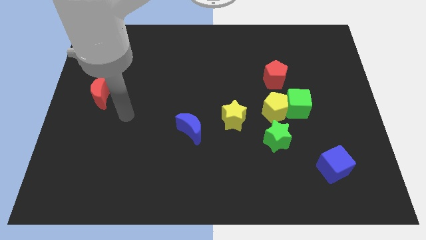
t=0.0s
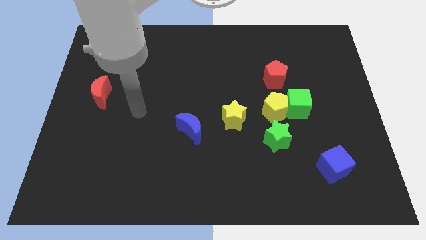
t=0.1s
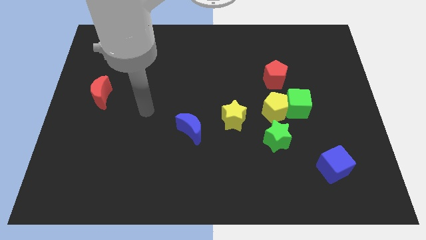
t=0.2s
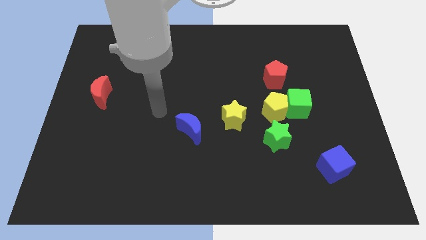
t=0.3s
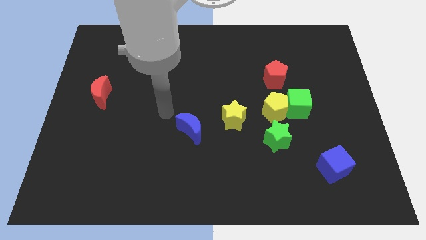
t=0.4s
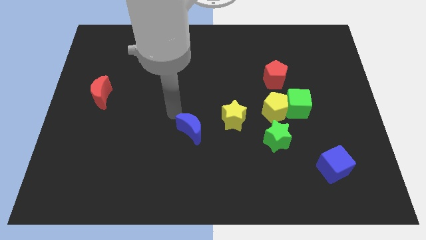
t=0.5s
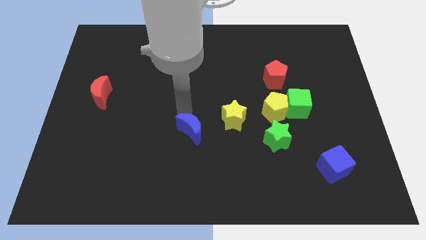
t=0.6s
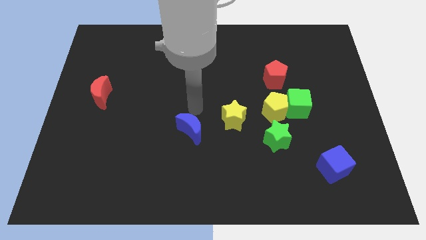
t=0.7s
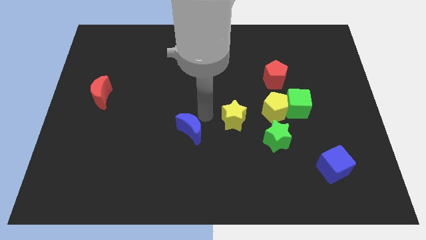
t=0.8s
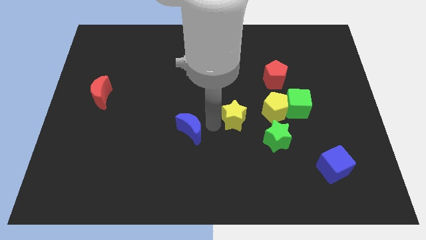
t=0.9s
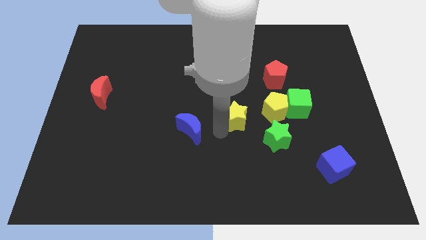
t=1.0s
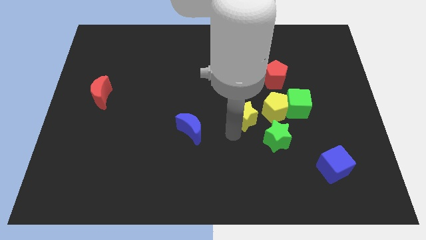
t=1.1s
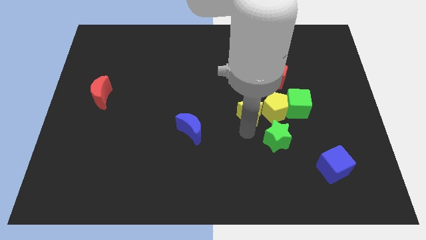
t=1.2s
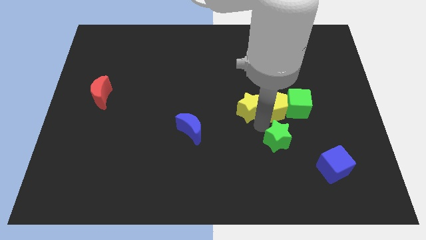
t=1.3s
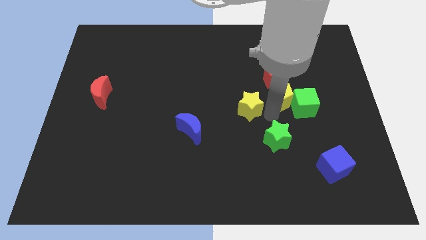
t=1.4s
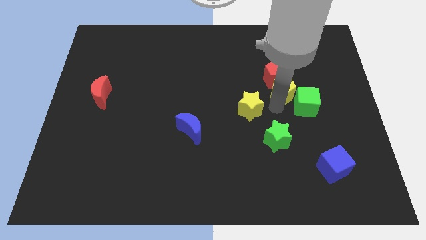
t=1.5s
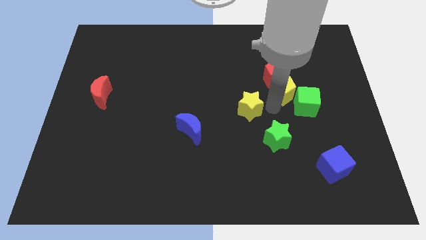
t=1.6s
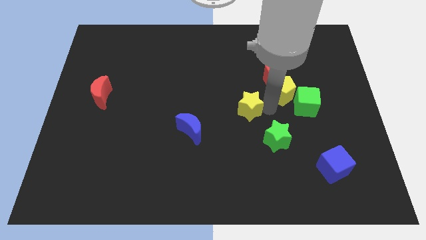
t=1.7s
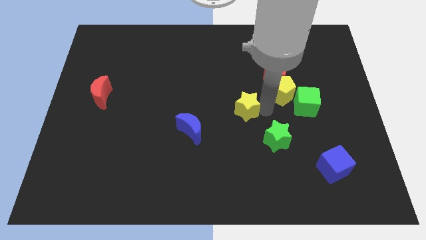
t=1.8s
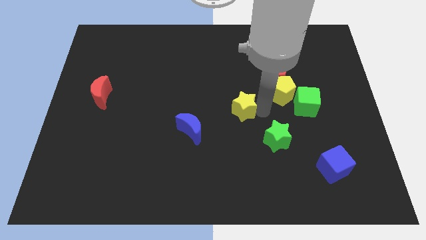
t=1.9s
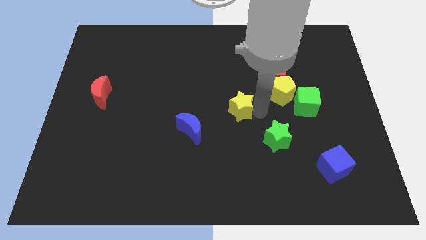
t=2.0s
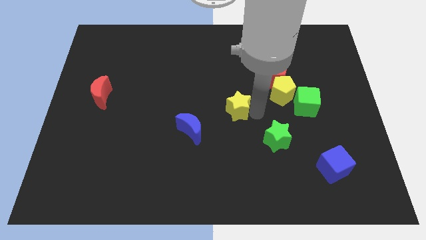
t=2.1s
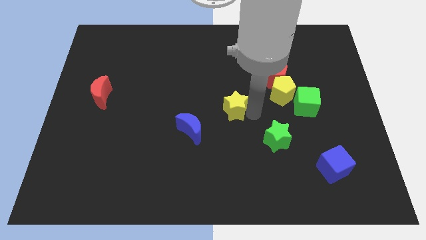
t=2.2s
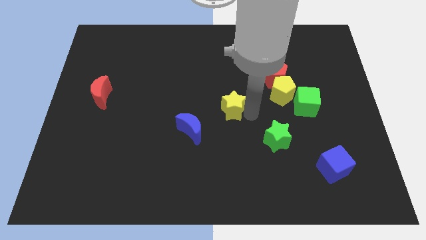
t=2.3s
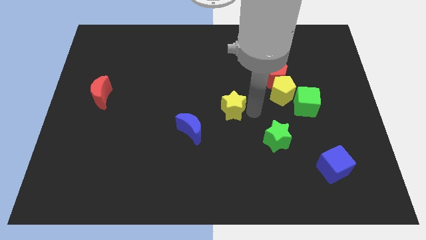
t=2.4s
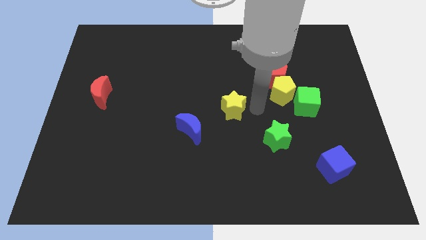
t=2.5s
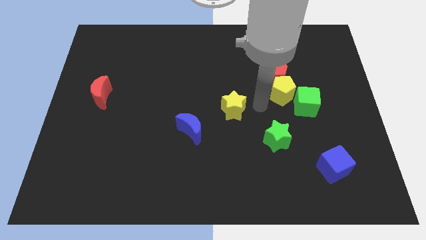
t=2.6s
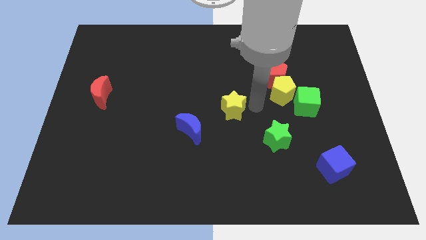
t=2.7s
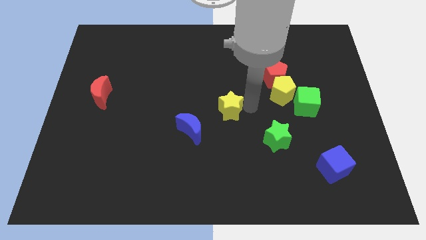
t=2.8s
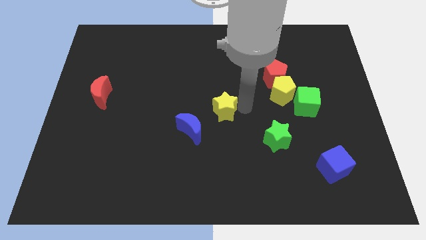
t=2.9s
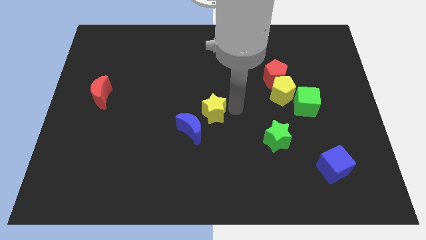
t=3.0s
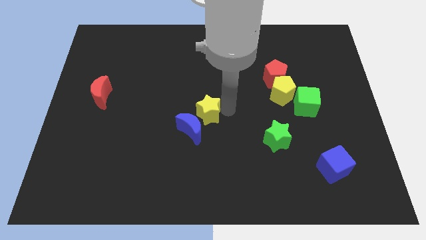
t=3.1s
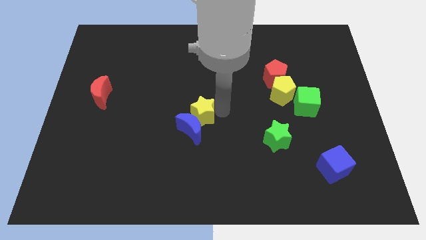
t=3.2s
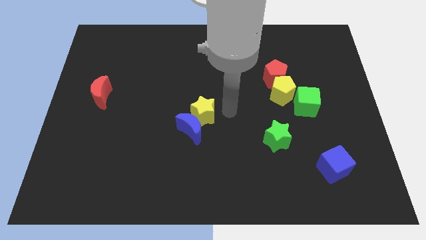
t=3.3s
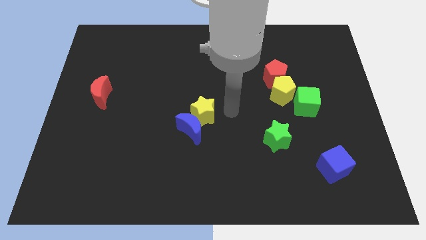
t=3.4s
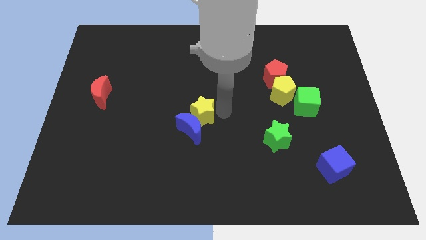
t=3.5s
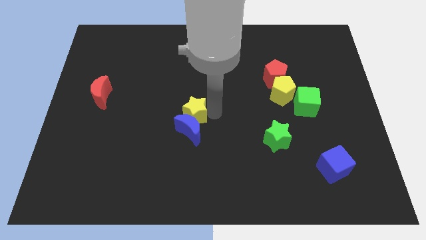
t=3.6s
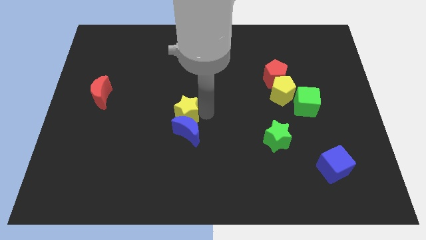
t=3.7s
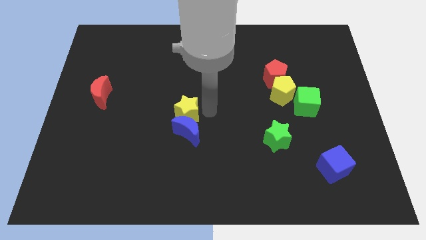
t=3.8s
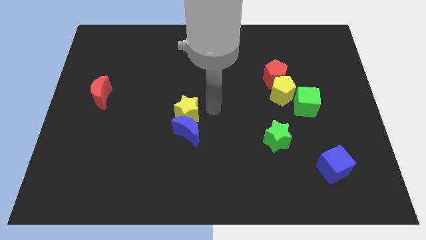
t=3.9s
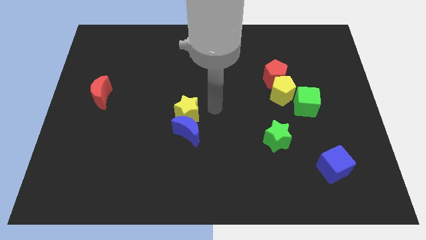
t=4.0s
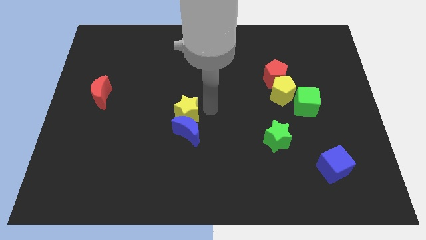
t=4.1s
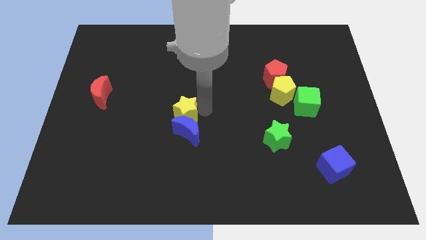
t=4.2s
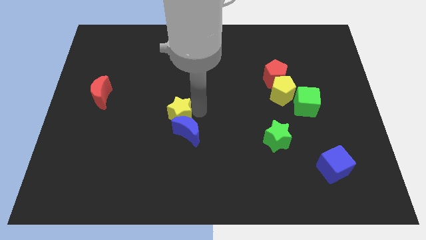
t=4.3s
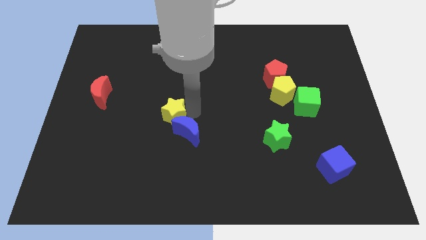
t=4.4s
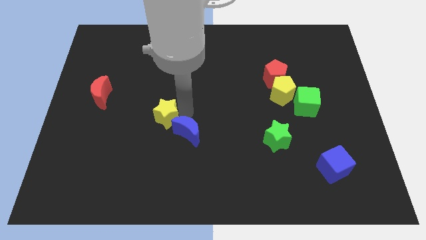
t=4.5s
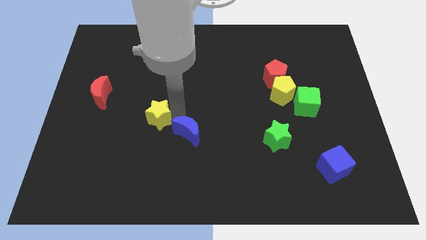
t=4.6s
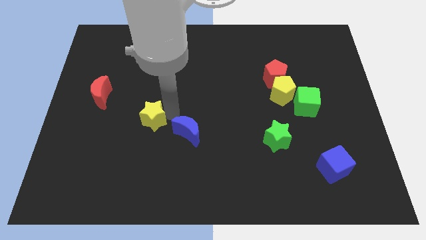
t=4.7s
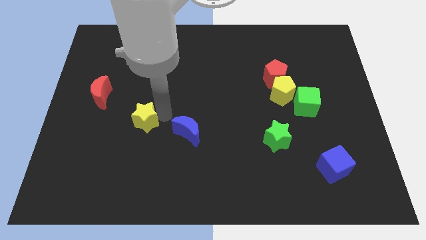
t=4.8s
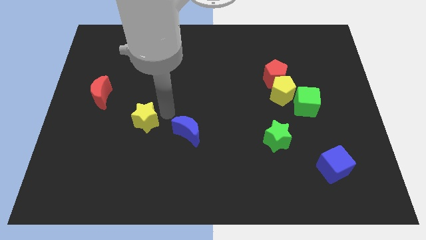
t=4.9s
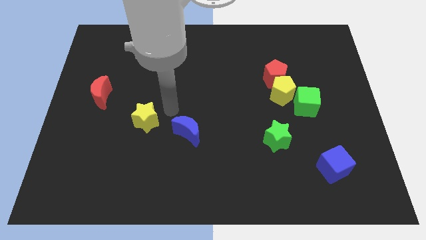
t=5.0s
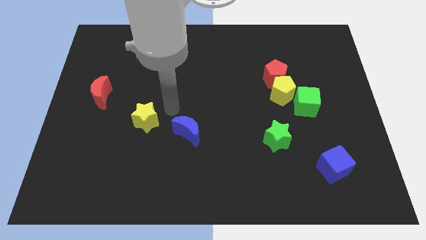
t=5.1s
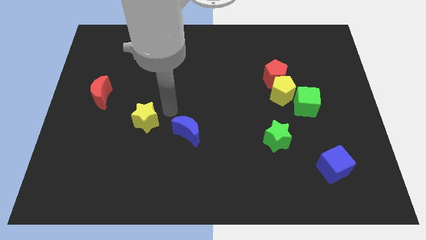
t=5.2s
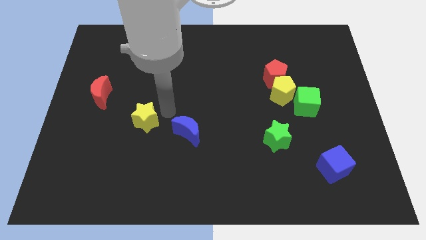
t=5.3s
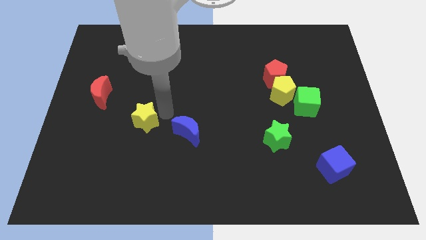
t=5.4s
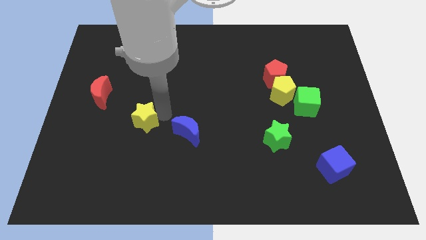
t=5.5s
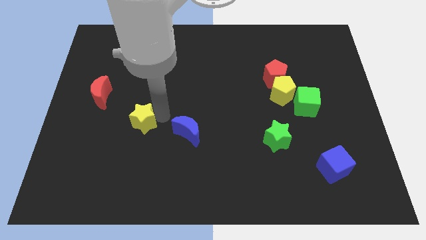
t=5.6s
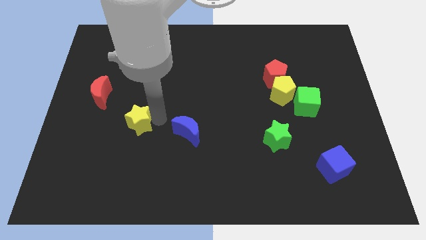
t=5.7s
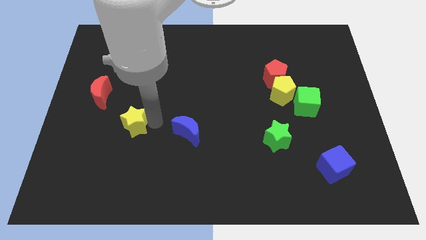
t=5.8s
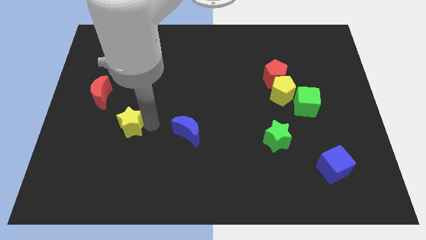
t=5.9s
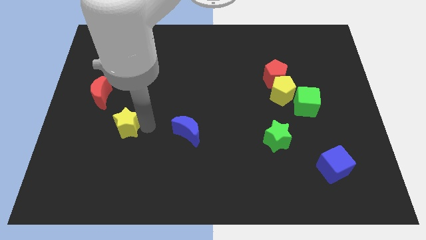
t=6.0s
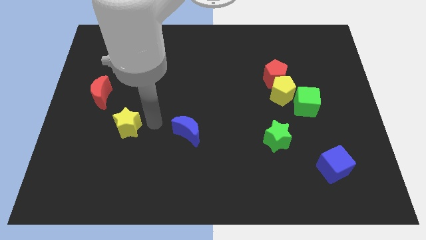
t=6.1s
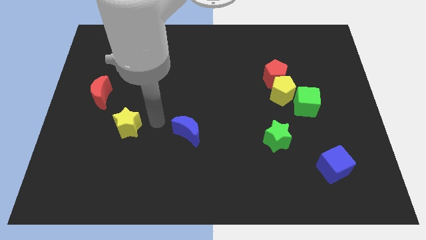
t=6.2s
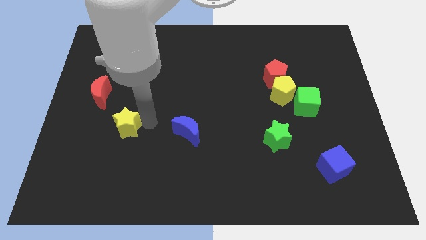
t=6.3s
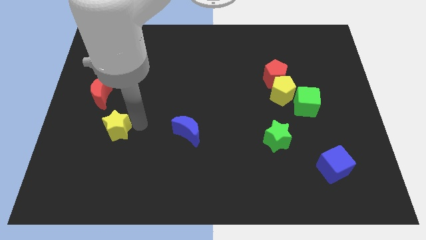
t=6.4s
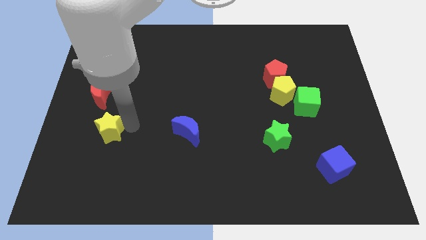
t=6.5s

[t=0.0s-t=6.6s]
push the yellow star below the red moon
